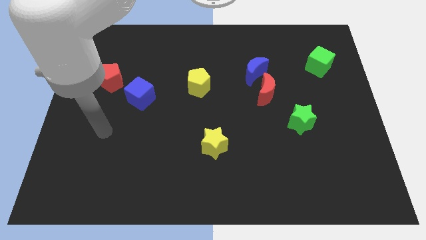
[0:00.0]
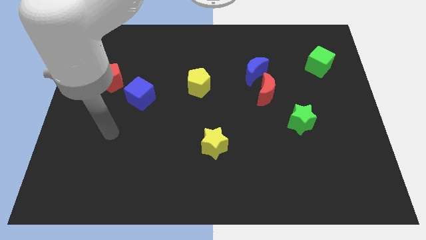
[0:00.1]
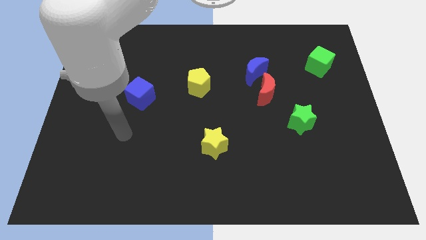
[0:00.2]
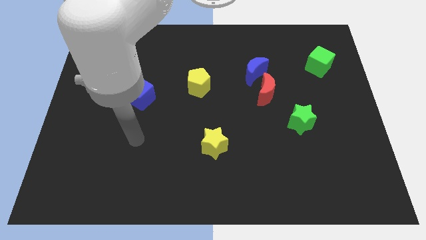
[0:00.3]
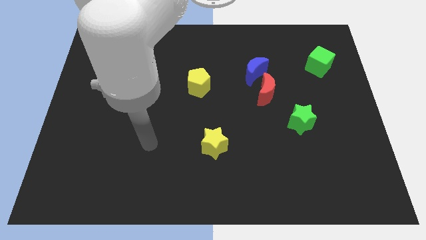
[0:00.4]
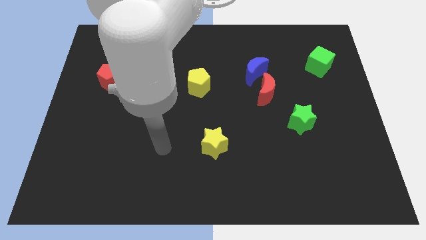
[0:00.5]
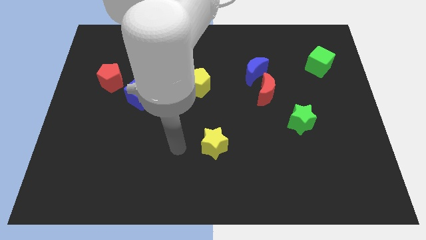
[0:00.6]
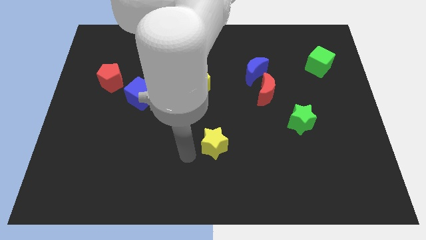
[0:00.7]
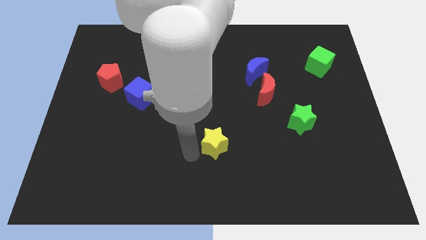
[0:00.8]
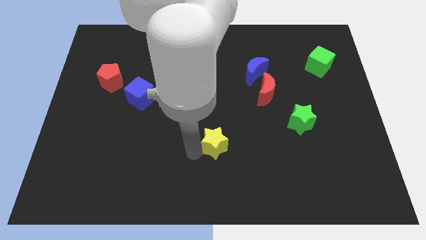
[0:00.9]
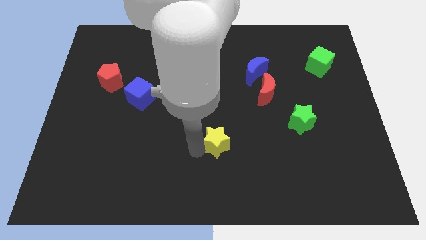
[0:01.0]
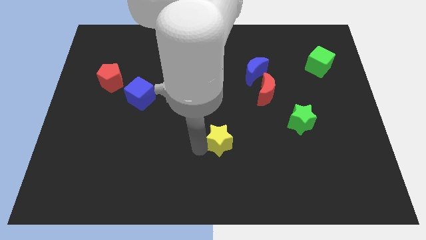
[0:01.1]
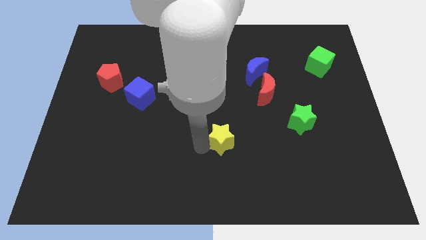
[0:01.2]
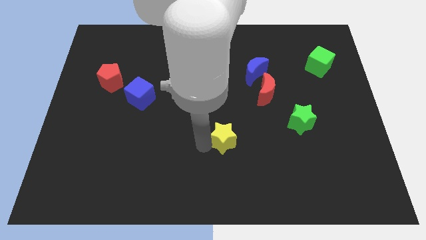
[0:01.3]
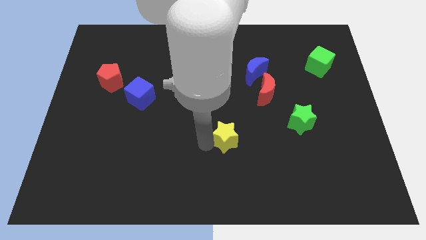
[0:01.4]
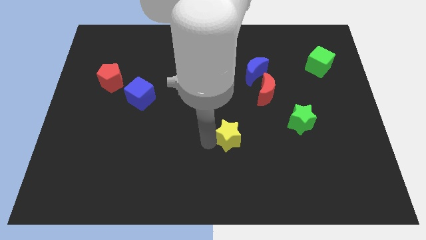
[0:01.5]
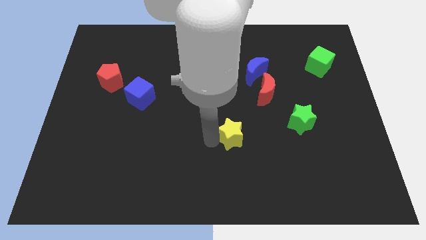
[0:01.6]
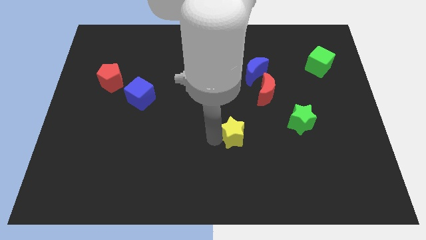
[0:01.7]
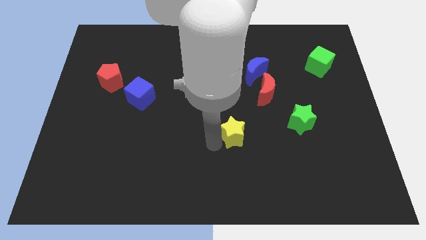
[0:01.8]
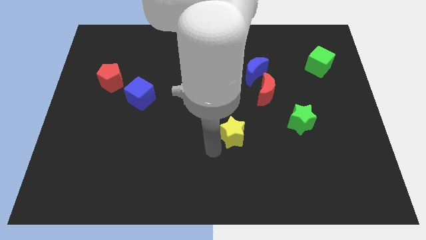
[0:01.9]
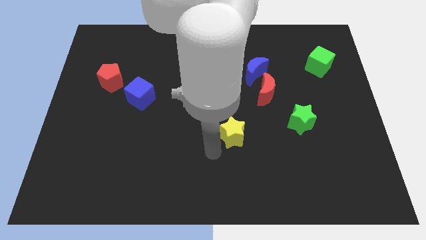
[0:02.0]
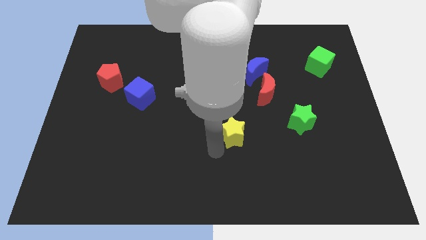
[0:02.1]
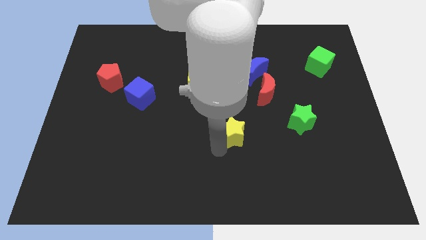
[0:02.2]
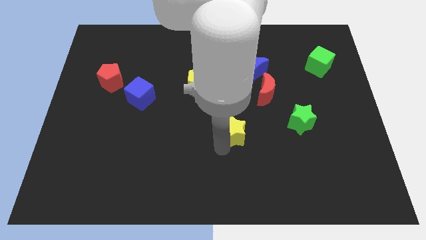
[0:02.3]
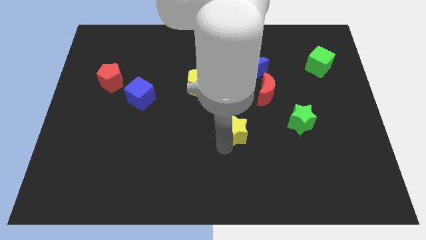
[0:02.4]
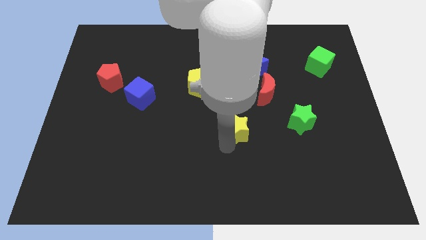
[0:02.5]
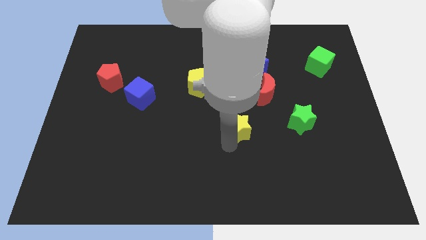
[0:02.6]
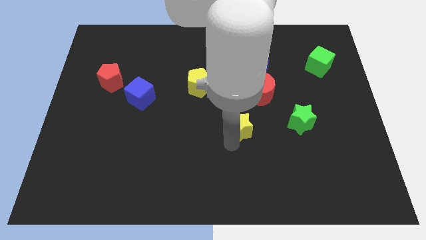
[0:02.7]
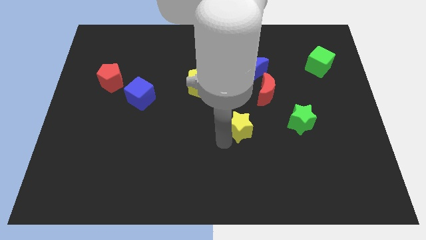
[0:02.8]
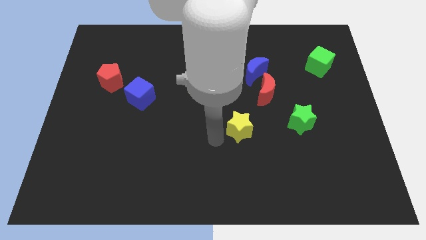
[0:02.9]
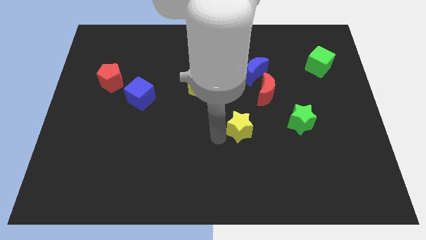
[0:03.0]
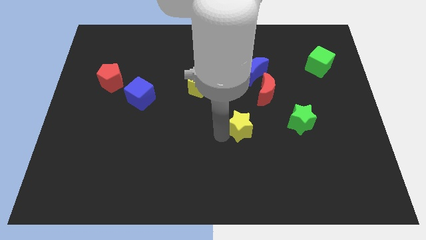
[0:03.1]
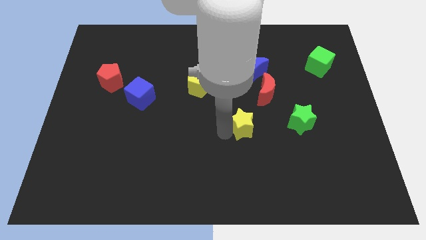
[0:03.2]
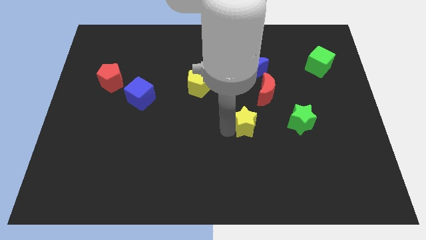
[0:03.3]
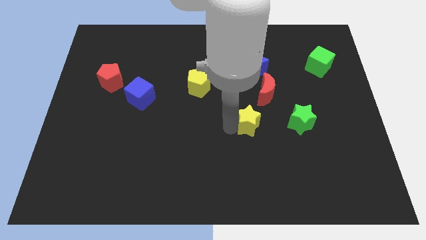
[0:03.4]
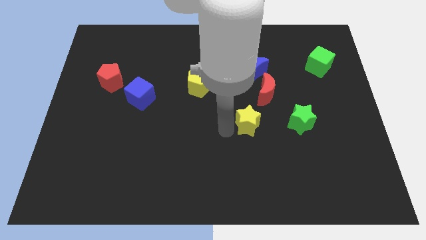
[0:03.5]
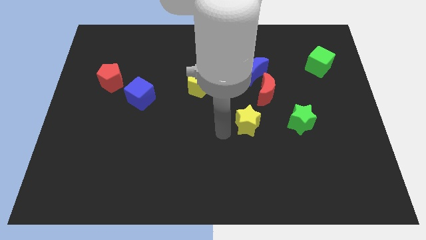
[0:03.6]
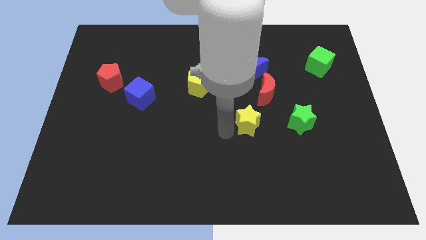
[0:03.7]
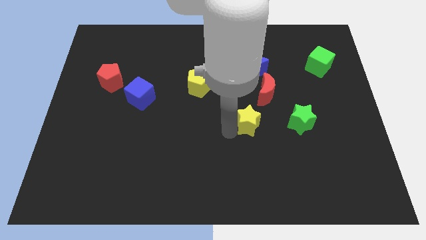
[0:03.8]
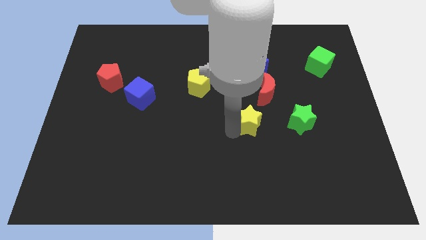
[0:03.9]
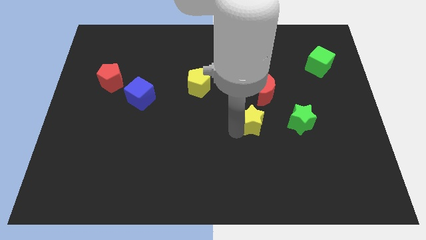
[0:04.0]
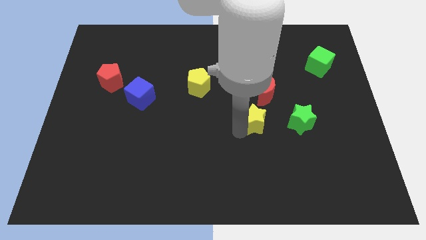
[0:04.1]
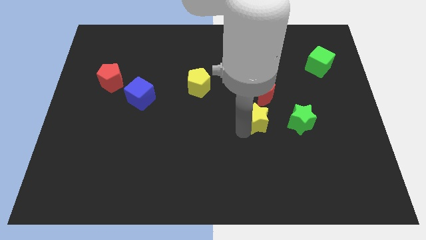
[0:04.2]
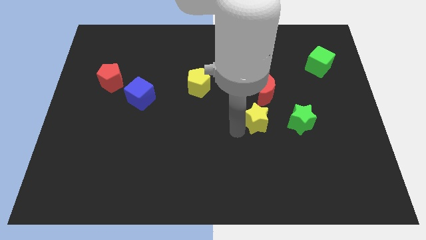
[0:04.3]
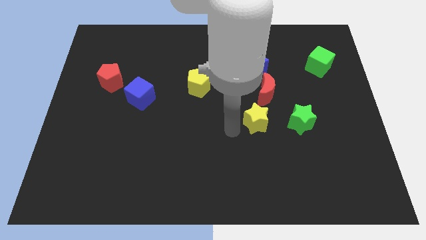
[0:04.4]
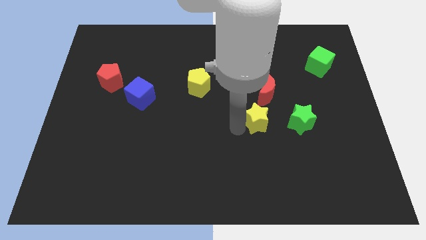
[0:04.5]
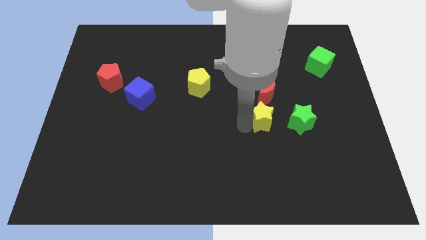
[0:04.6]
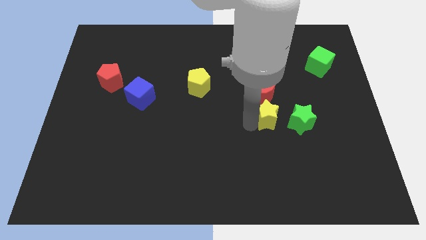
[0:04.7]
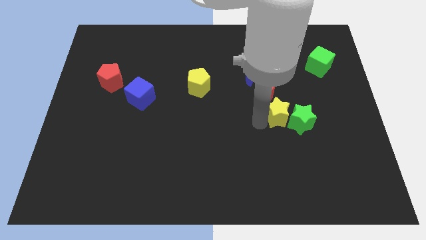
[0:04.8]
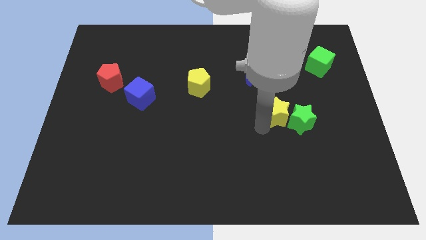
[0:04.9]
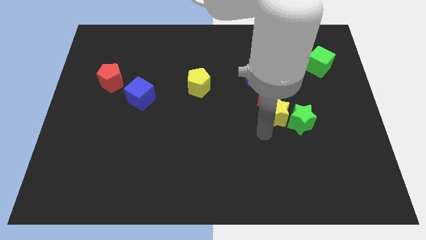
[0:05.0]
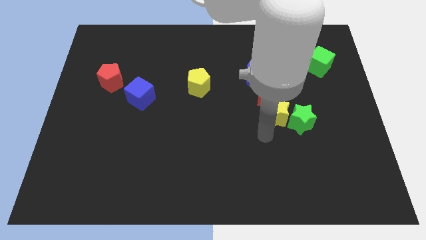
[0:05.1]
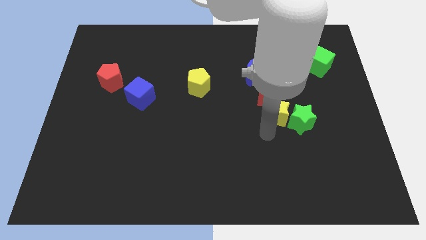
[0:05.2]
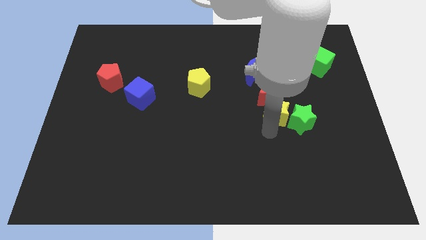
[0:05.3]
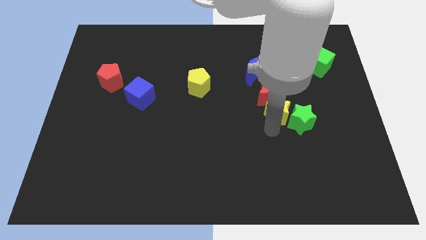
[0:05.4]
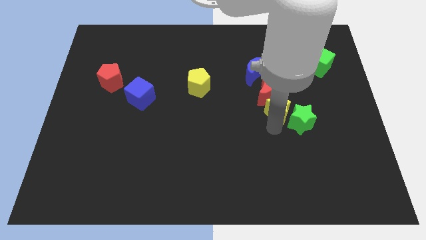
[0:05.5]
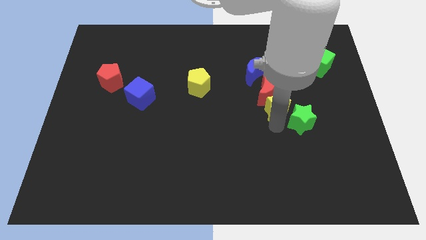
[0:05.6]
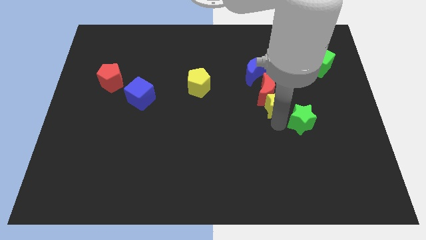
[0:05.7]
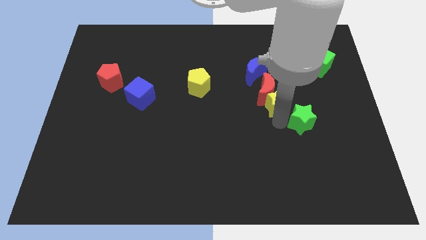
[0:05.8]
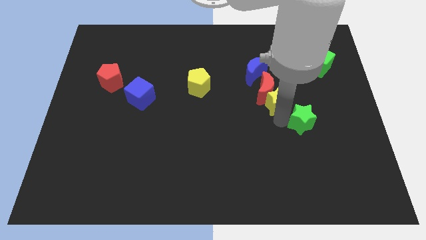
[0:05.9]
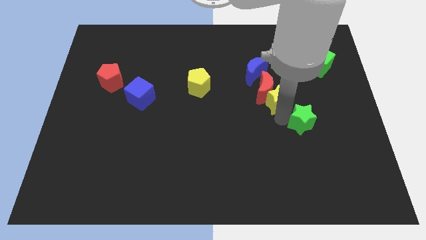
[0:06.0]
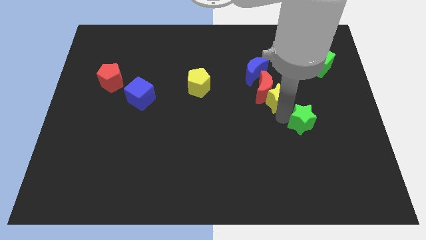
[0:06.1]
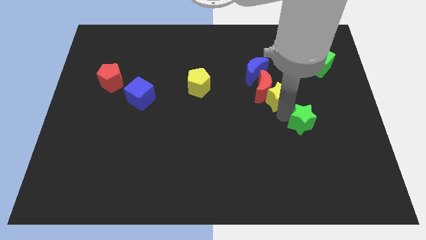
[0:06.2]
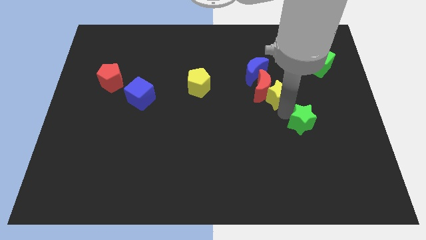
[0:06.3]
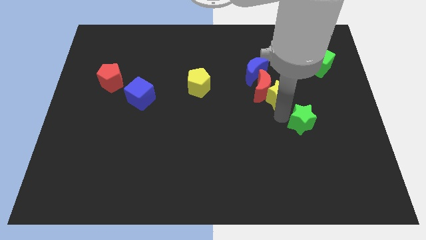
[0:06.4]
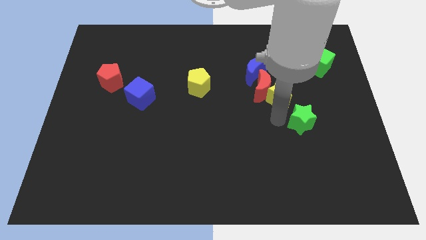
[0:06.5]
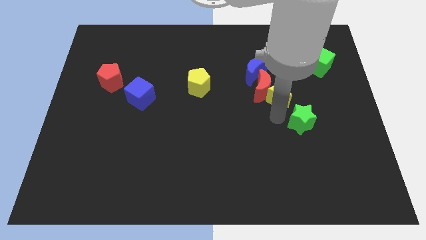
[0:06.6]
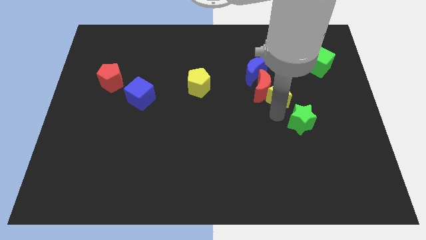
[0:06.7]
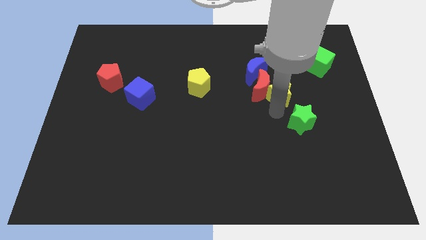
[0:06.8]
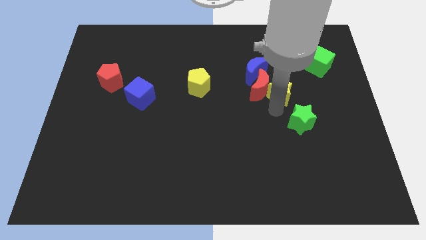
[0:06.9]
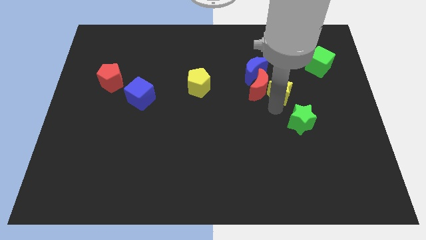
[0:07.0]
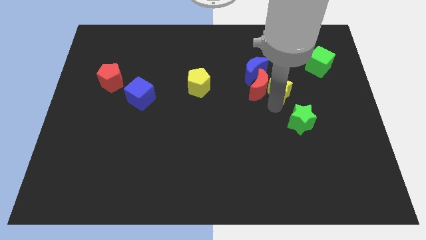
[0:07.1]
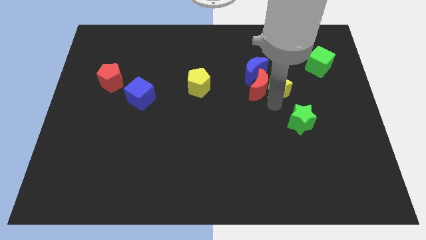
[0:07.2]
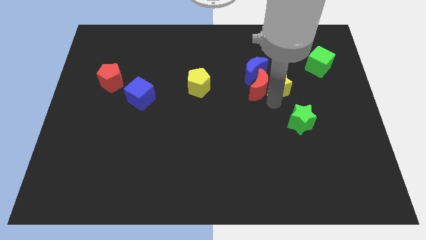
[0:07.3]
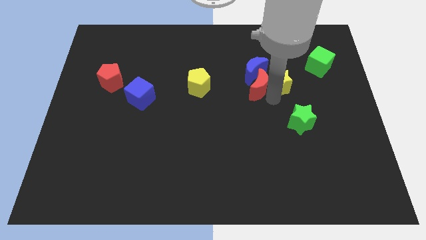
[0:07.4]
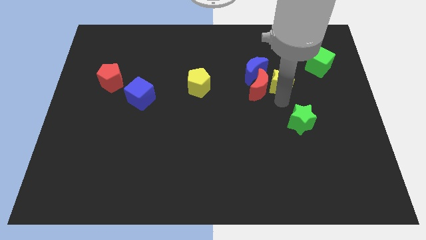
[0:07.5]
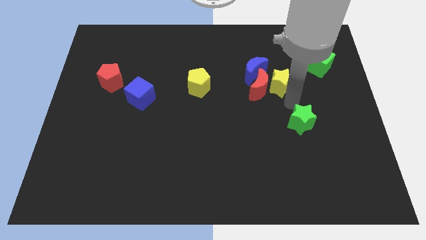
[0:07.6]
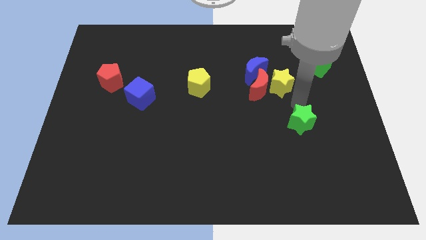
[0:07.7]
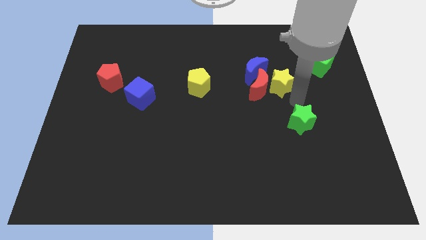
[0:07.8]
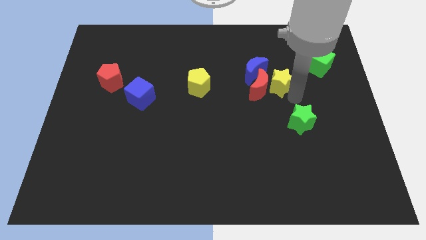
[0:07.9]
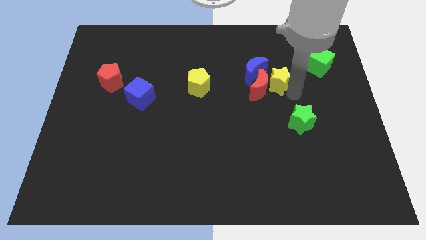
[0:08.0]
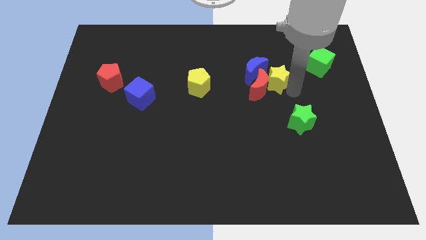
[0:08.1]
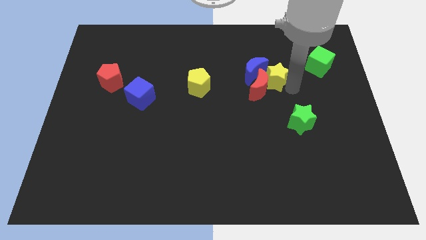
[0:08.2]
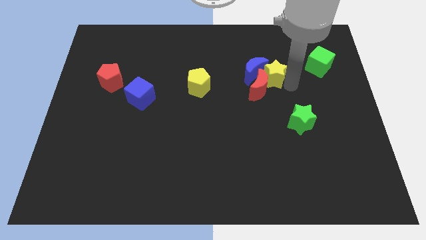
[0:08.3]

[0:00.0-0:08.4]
move the yellow star above the red moon
